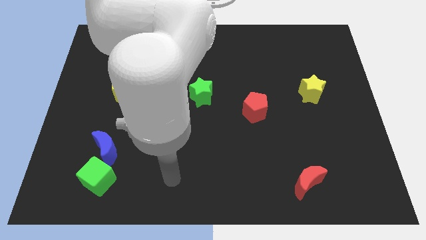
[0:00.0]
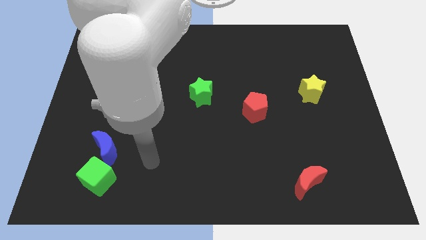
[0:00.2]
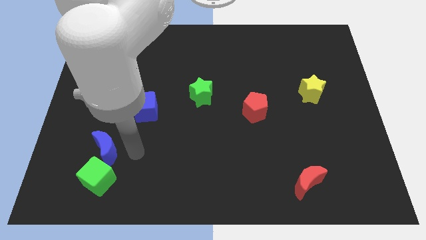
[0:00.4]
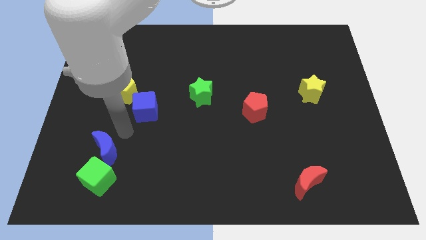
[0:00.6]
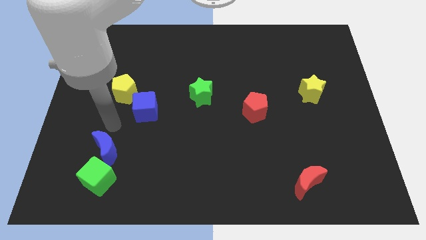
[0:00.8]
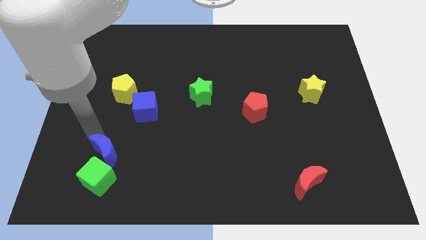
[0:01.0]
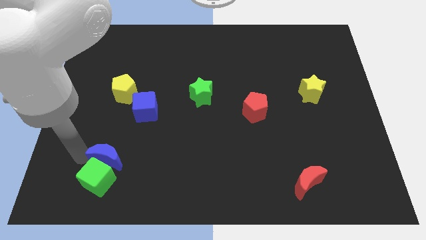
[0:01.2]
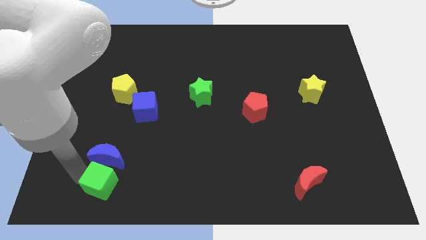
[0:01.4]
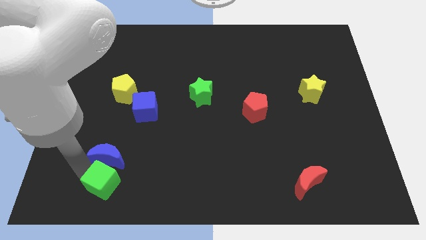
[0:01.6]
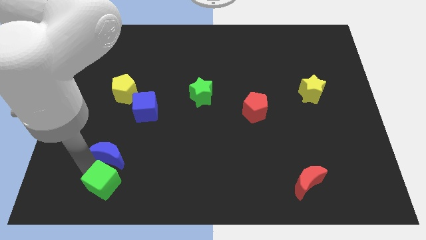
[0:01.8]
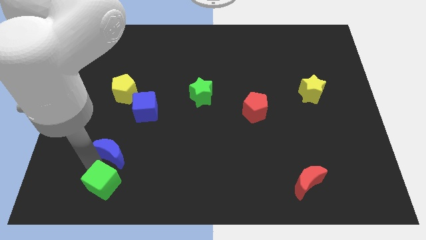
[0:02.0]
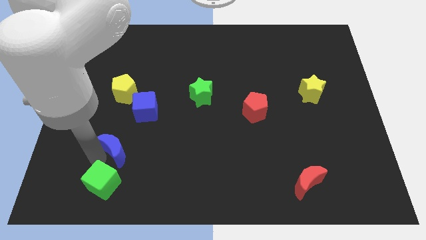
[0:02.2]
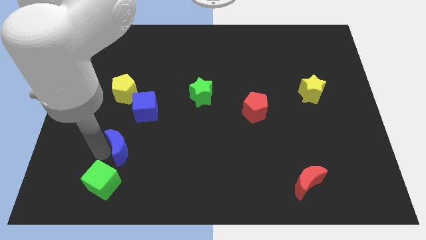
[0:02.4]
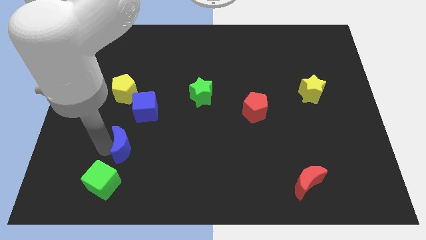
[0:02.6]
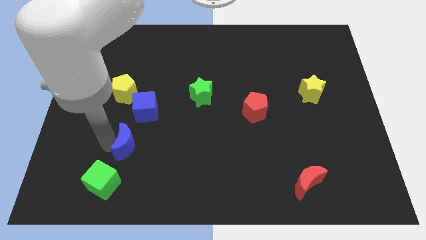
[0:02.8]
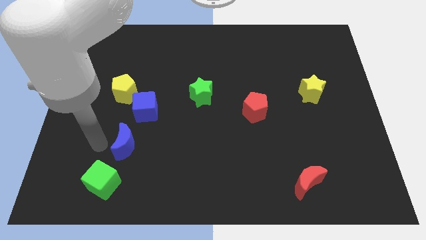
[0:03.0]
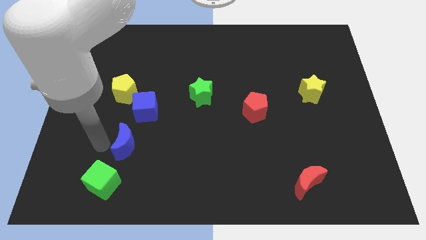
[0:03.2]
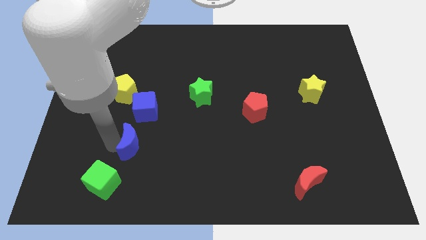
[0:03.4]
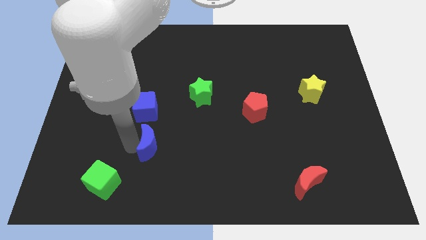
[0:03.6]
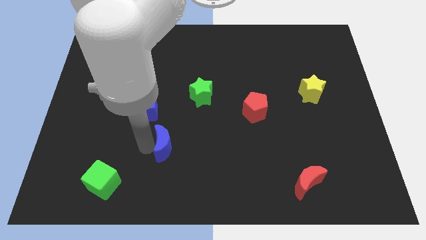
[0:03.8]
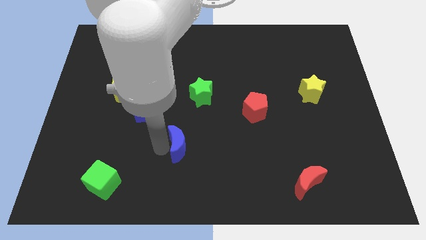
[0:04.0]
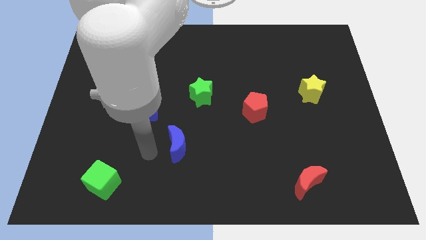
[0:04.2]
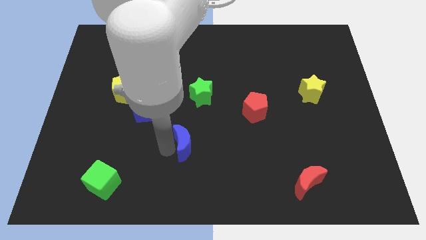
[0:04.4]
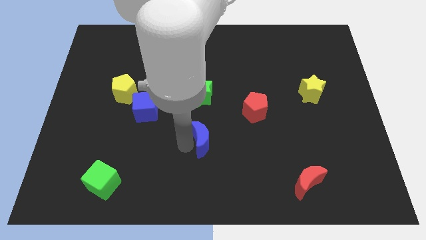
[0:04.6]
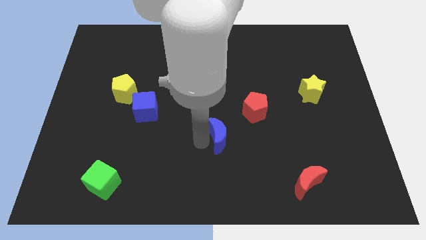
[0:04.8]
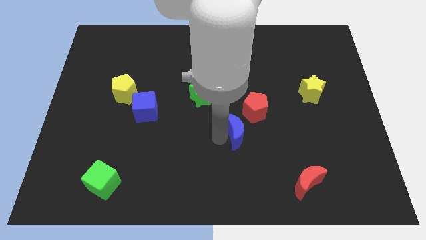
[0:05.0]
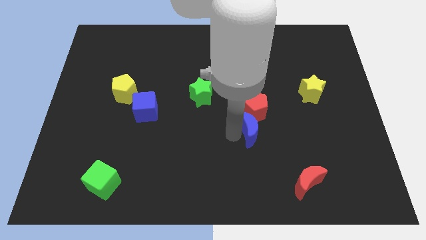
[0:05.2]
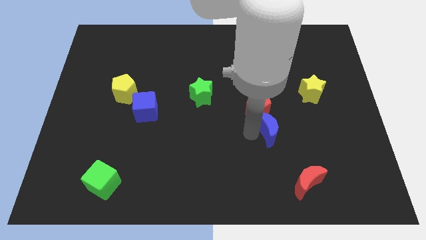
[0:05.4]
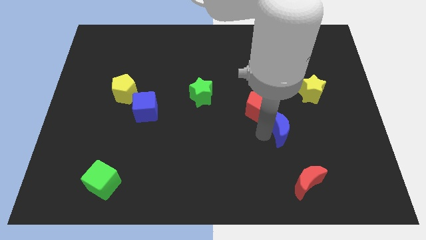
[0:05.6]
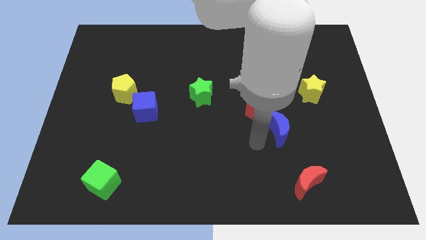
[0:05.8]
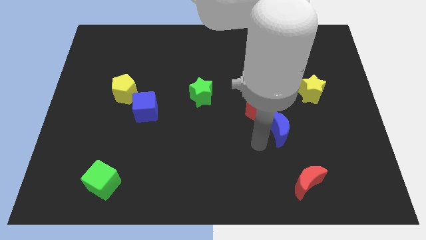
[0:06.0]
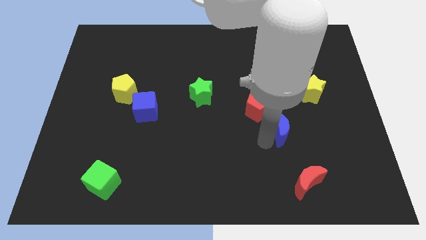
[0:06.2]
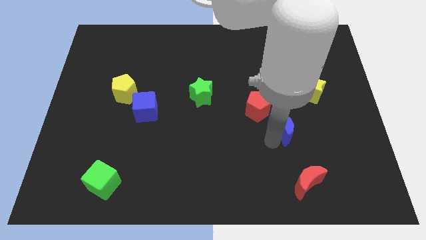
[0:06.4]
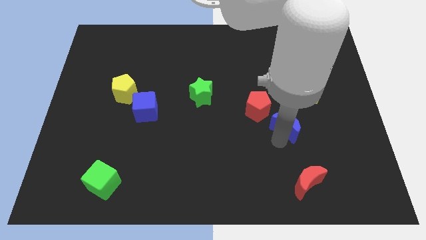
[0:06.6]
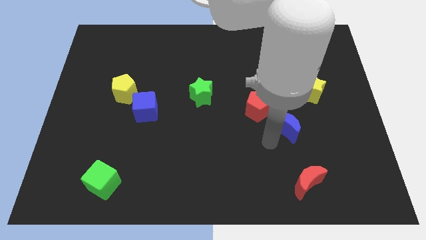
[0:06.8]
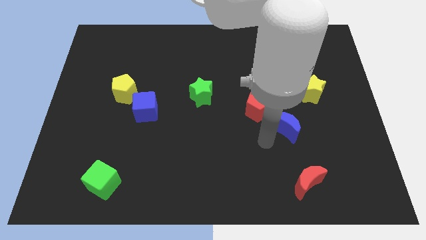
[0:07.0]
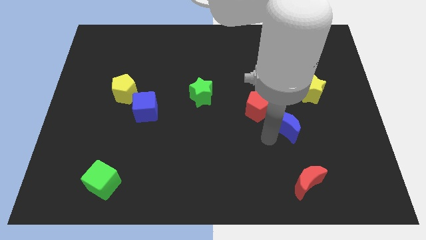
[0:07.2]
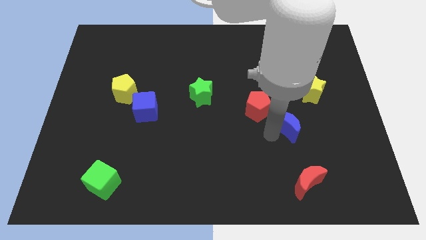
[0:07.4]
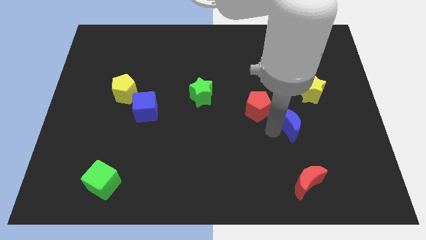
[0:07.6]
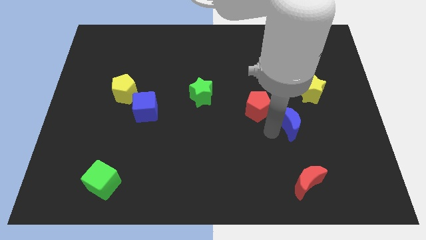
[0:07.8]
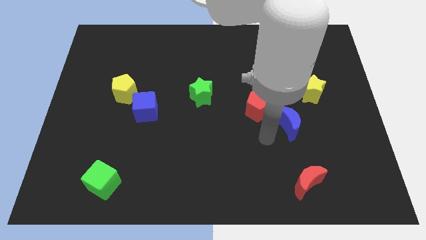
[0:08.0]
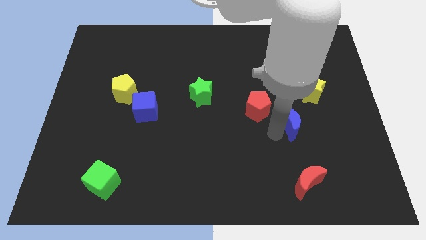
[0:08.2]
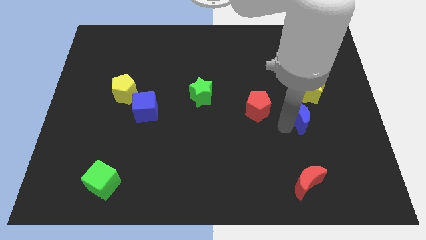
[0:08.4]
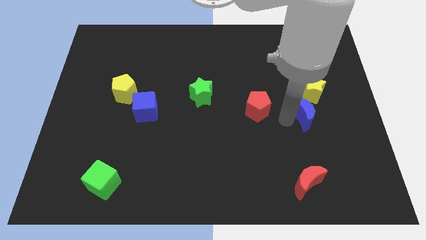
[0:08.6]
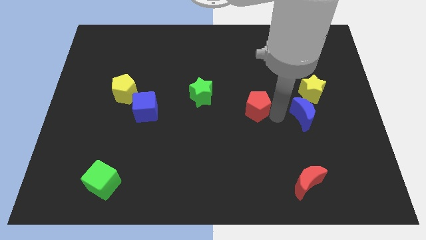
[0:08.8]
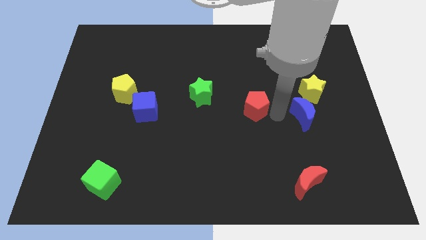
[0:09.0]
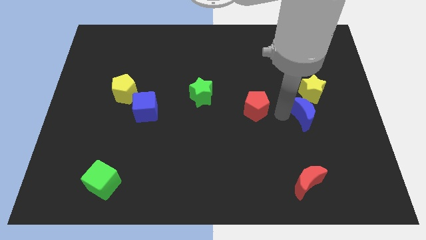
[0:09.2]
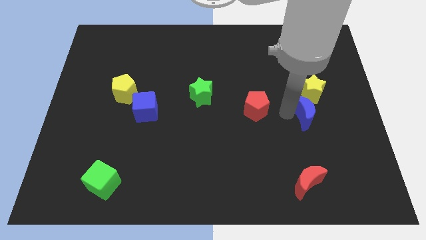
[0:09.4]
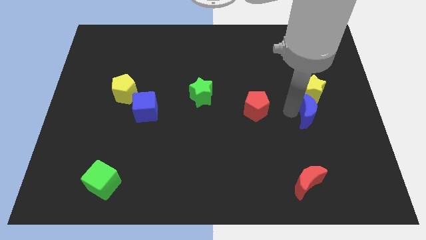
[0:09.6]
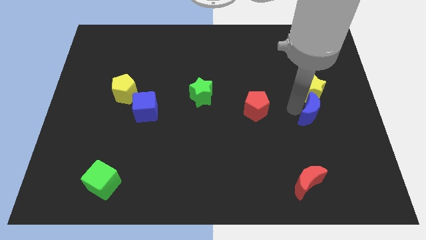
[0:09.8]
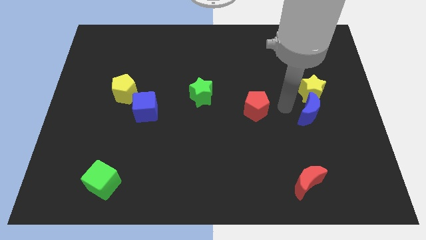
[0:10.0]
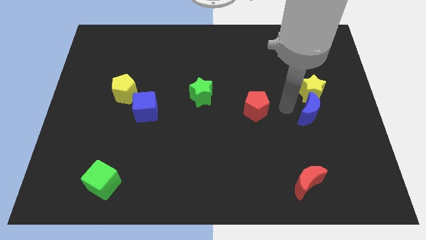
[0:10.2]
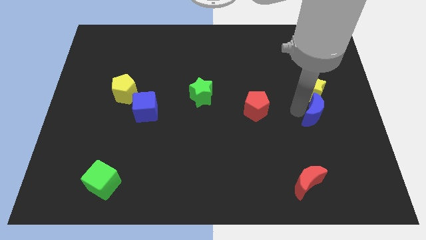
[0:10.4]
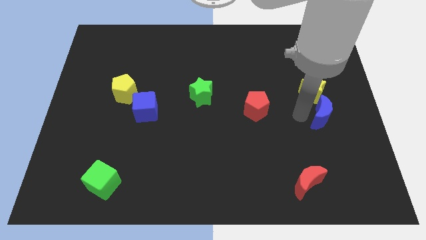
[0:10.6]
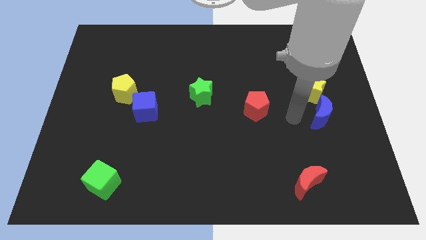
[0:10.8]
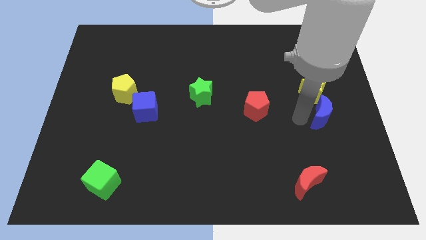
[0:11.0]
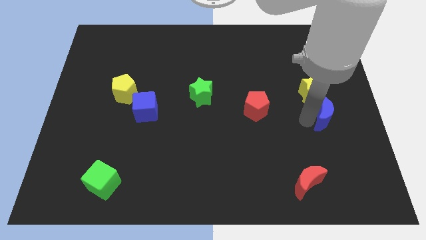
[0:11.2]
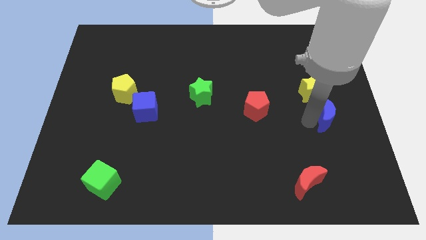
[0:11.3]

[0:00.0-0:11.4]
slide the blue moon to the right side of the board
